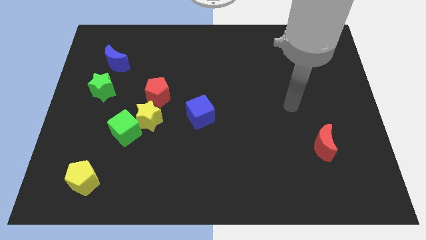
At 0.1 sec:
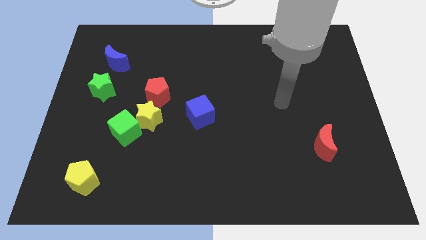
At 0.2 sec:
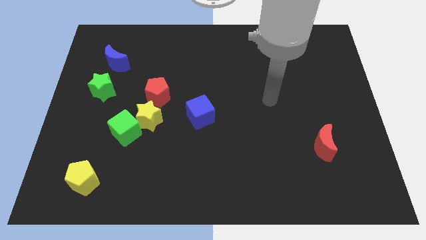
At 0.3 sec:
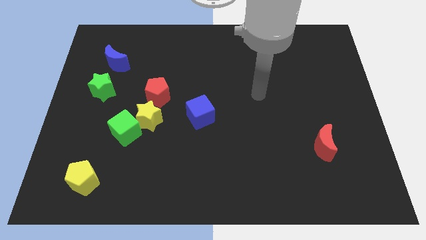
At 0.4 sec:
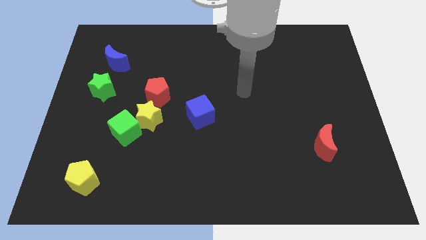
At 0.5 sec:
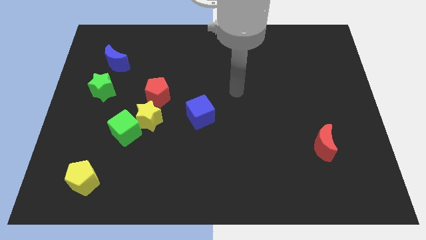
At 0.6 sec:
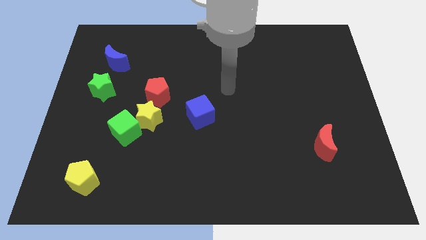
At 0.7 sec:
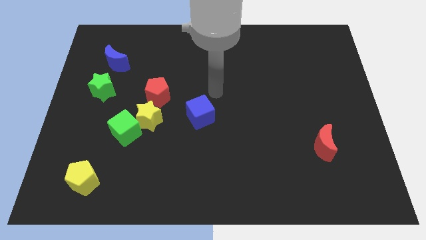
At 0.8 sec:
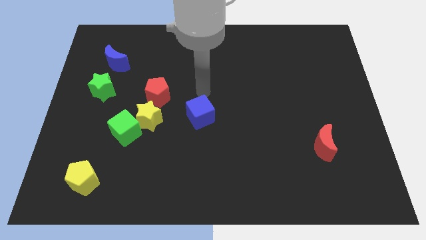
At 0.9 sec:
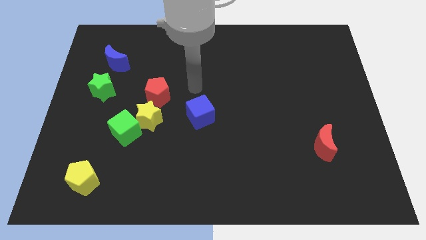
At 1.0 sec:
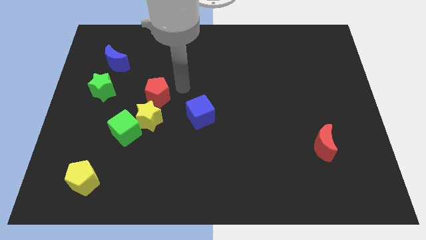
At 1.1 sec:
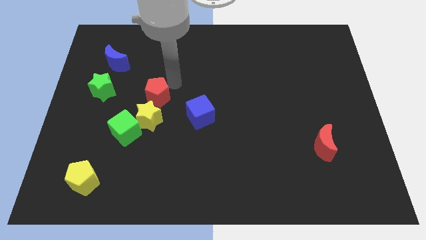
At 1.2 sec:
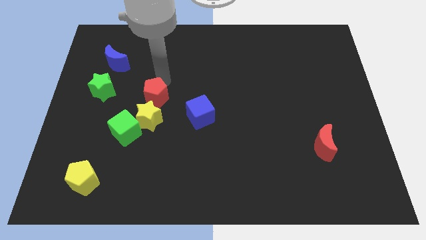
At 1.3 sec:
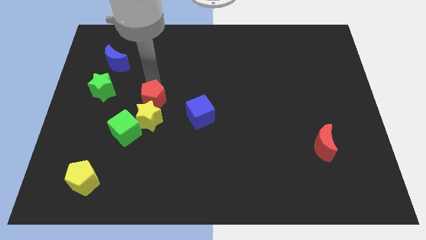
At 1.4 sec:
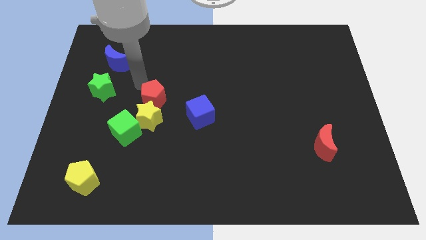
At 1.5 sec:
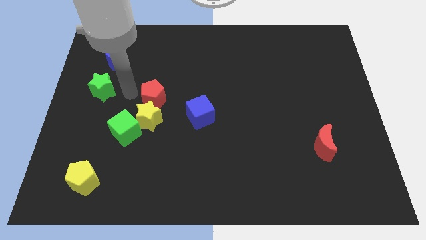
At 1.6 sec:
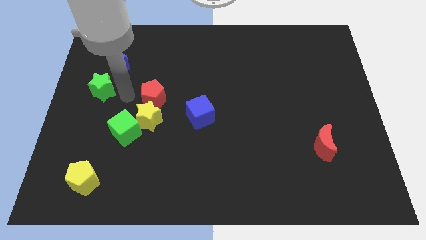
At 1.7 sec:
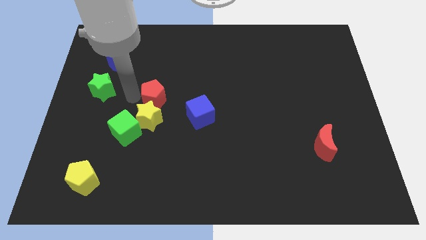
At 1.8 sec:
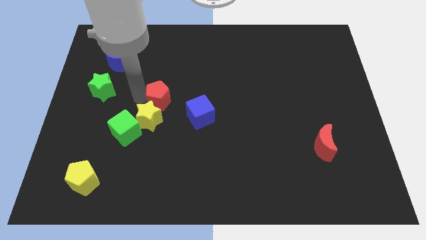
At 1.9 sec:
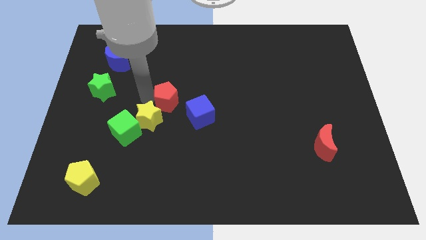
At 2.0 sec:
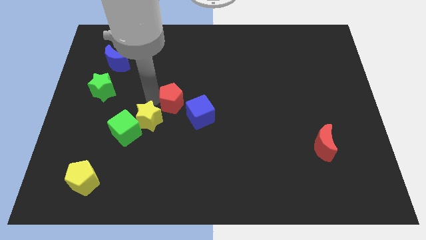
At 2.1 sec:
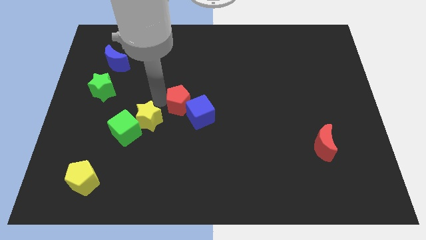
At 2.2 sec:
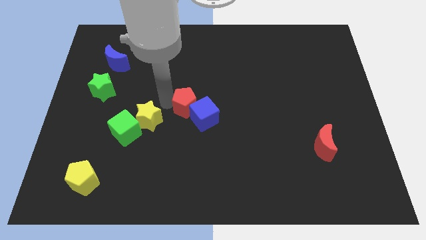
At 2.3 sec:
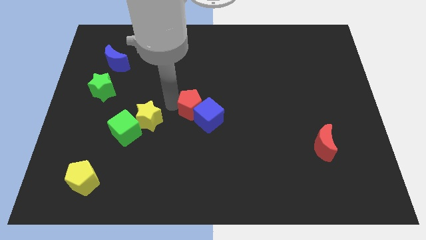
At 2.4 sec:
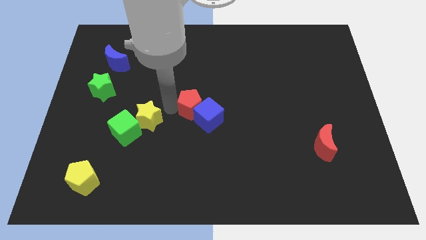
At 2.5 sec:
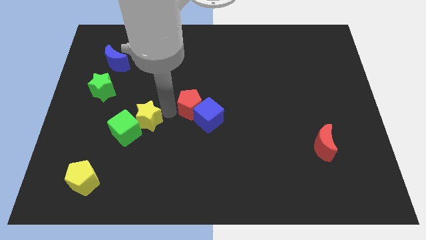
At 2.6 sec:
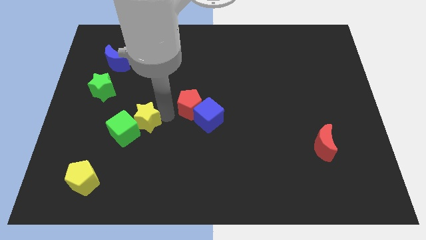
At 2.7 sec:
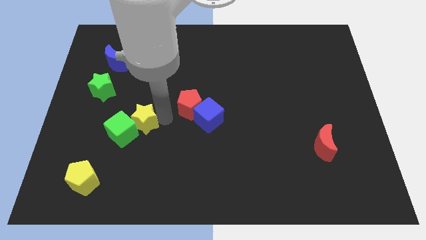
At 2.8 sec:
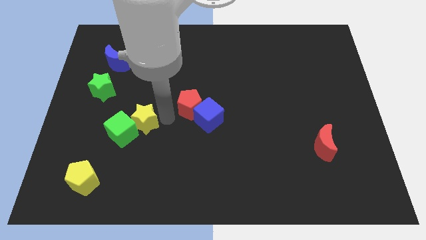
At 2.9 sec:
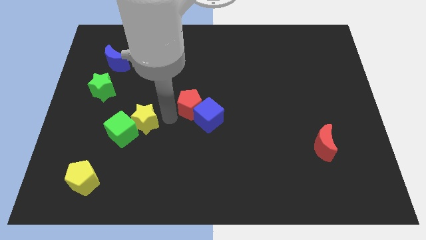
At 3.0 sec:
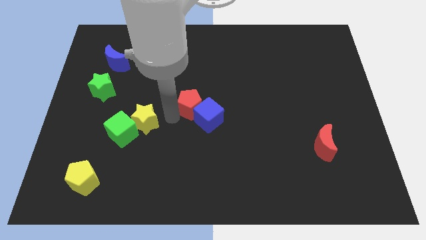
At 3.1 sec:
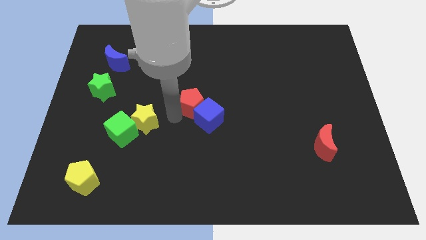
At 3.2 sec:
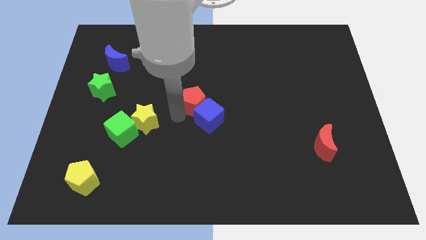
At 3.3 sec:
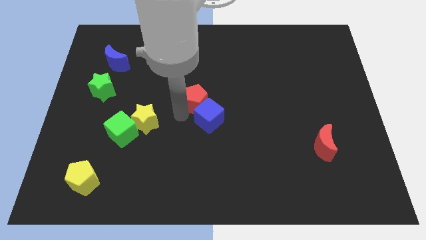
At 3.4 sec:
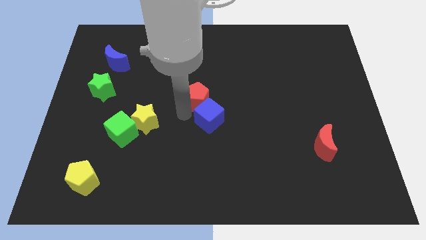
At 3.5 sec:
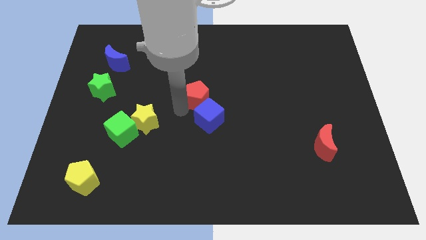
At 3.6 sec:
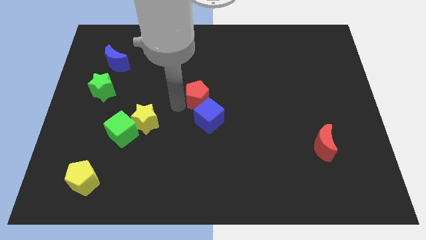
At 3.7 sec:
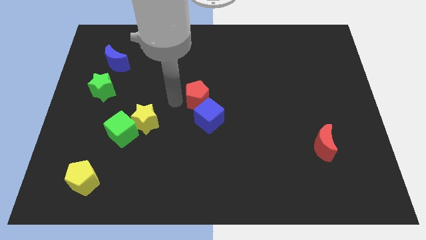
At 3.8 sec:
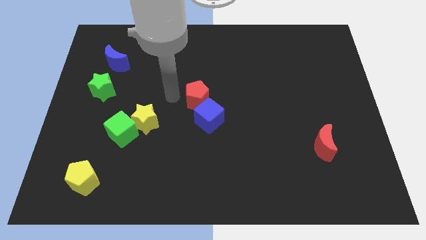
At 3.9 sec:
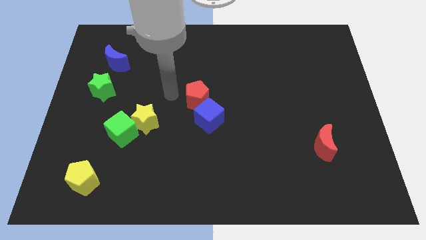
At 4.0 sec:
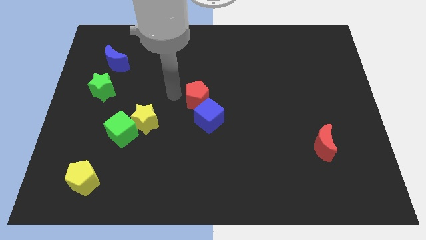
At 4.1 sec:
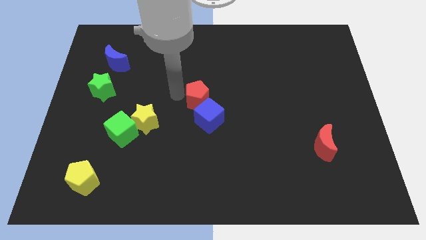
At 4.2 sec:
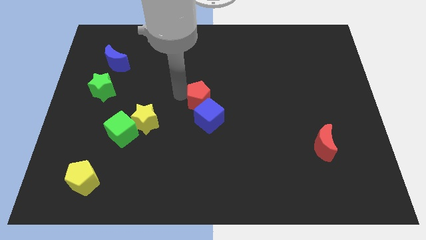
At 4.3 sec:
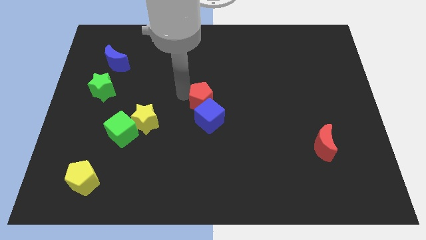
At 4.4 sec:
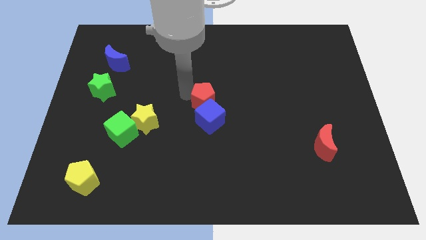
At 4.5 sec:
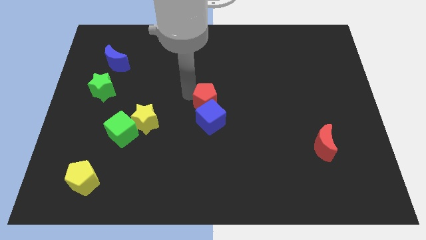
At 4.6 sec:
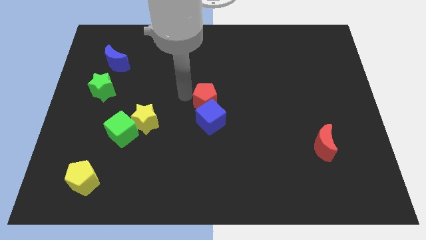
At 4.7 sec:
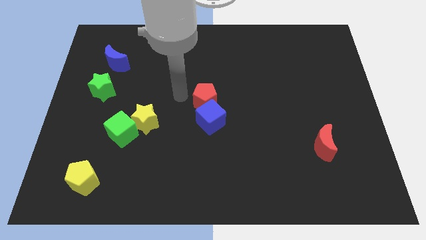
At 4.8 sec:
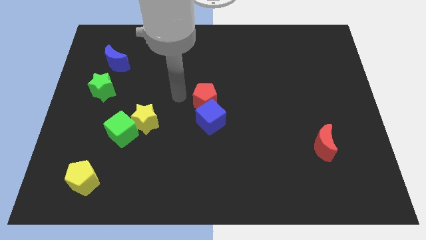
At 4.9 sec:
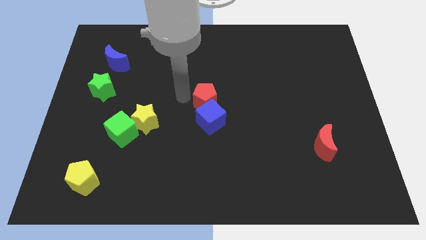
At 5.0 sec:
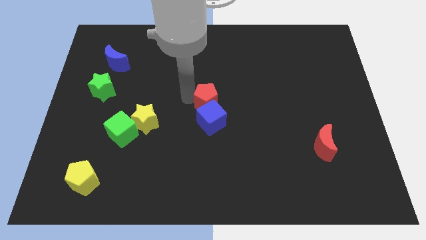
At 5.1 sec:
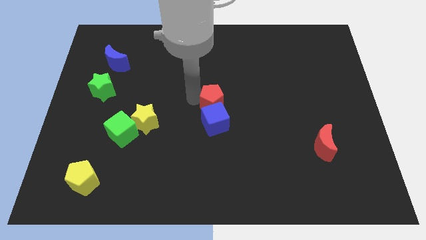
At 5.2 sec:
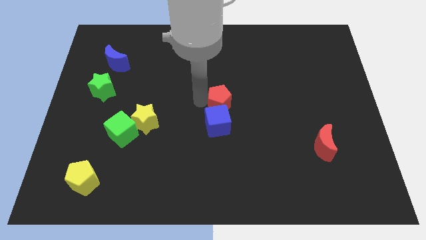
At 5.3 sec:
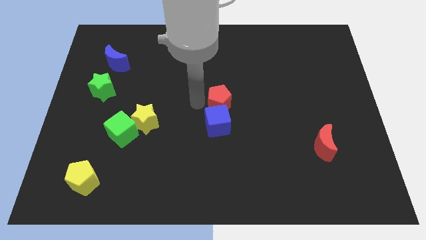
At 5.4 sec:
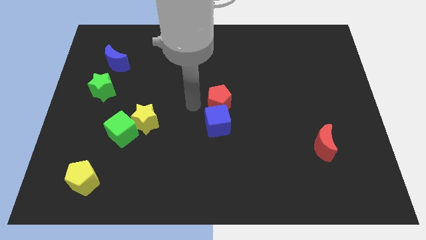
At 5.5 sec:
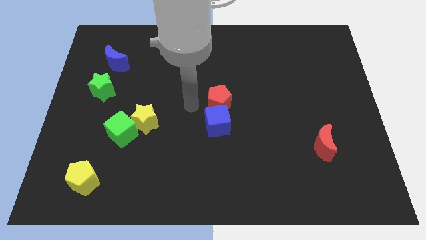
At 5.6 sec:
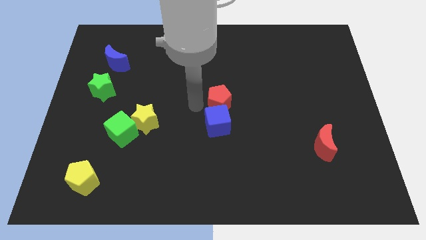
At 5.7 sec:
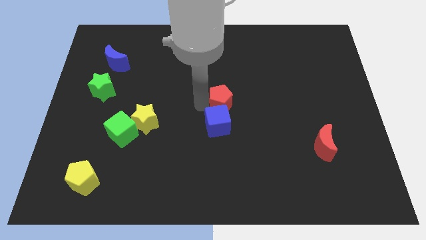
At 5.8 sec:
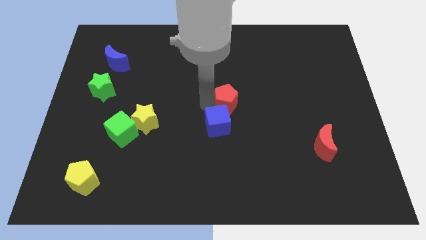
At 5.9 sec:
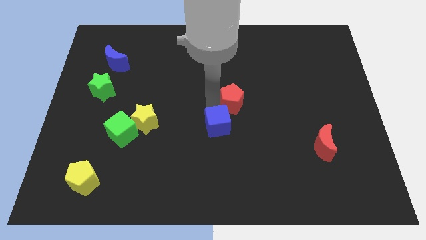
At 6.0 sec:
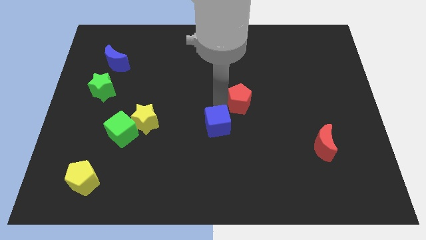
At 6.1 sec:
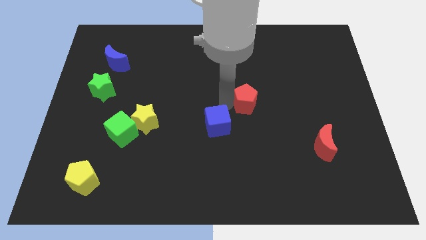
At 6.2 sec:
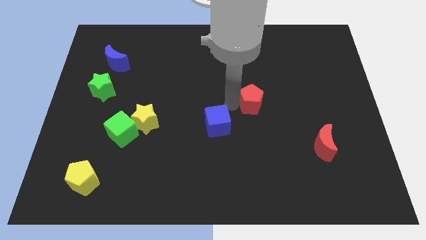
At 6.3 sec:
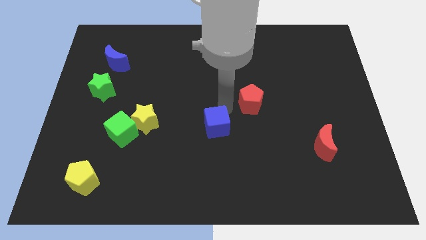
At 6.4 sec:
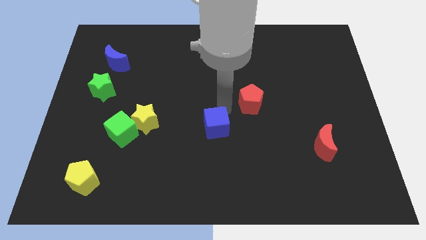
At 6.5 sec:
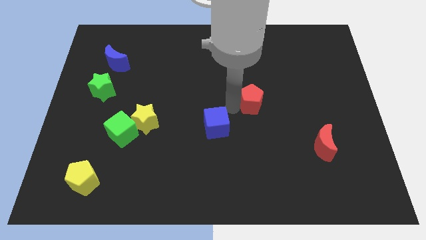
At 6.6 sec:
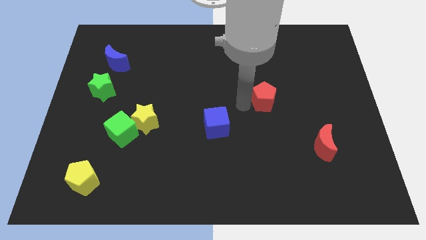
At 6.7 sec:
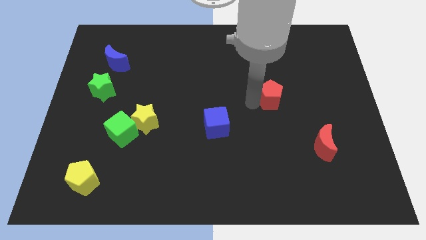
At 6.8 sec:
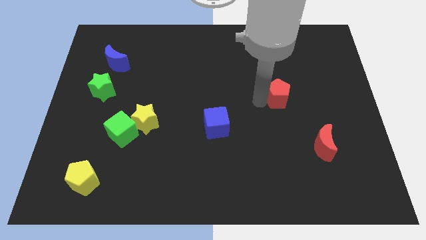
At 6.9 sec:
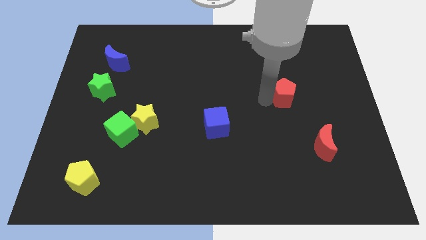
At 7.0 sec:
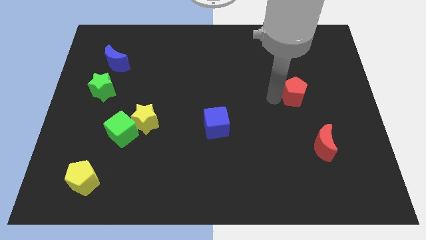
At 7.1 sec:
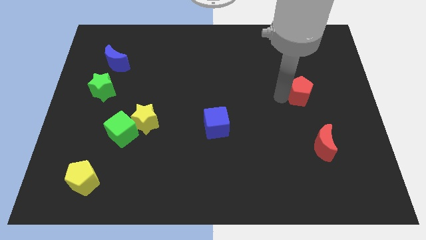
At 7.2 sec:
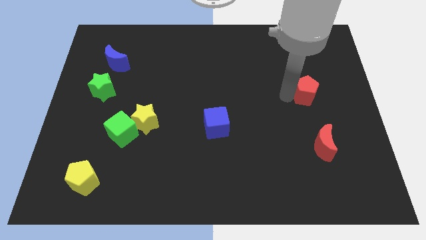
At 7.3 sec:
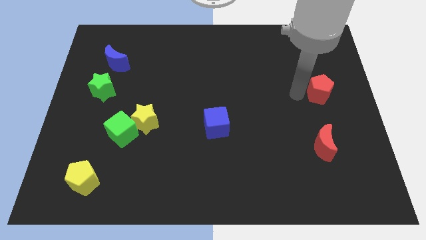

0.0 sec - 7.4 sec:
slide the red pentagon to the center right

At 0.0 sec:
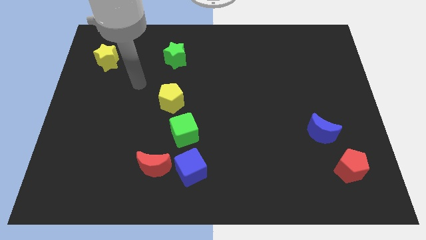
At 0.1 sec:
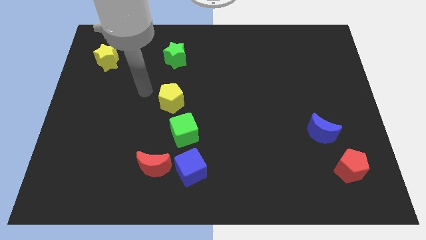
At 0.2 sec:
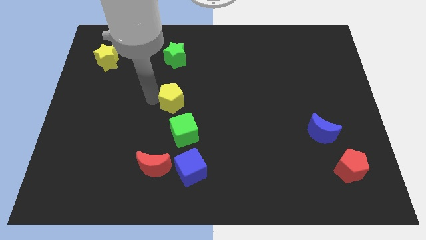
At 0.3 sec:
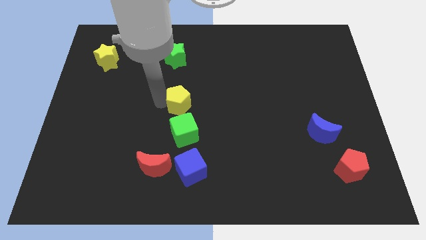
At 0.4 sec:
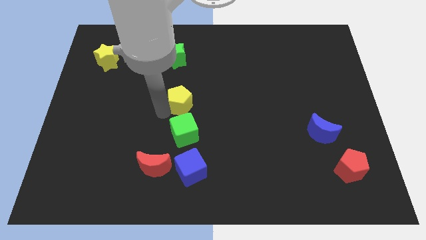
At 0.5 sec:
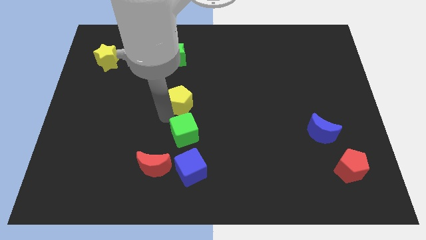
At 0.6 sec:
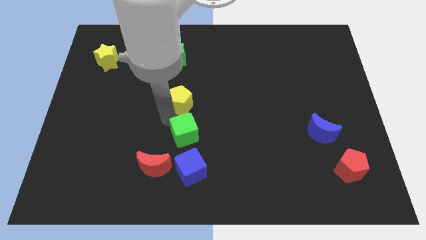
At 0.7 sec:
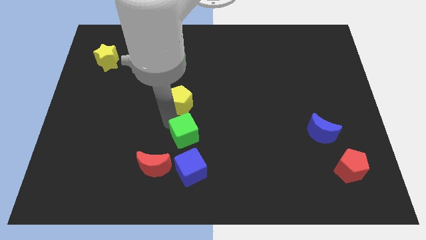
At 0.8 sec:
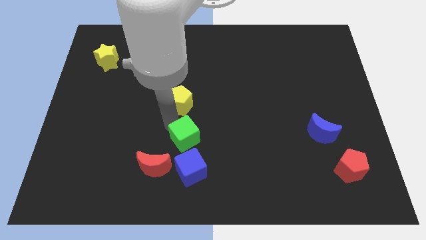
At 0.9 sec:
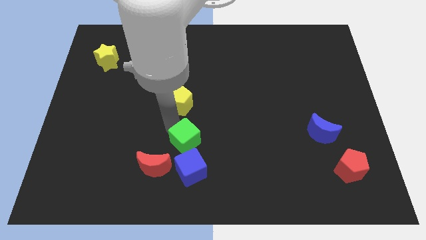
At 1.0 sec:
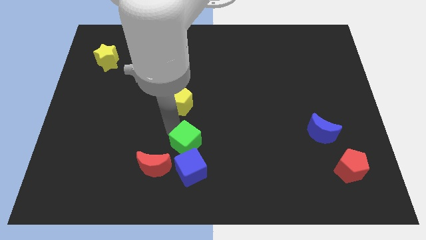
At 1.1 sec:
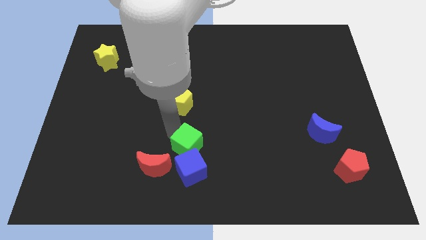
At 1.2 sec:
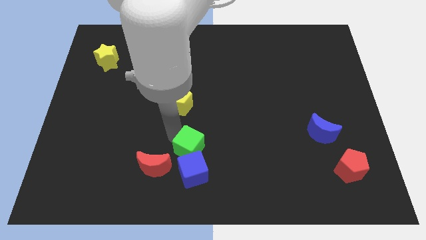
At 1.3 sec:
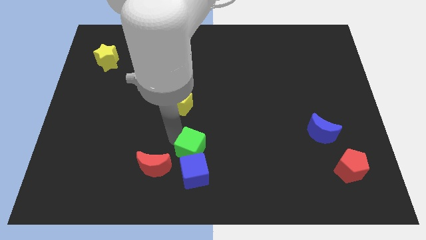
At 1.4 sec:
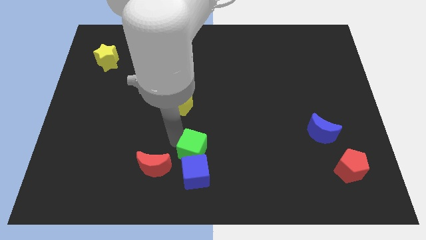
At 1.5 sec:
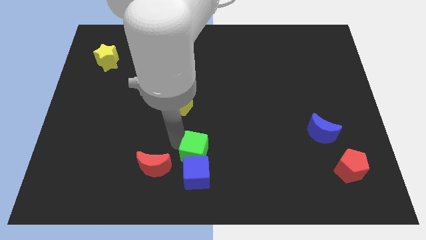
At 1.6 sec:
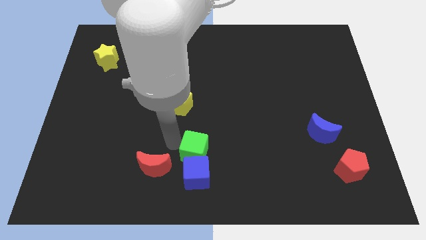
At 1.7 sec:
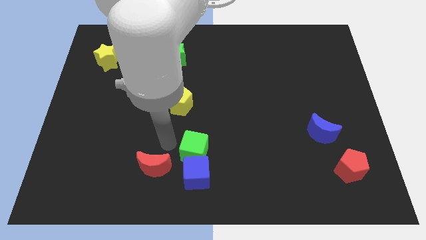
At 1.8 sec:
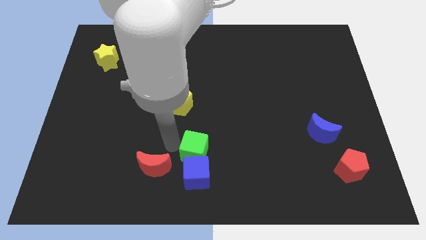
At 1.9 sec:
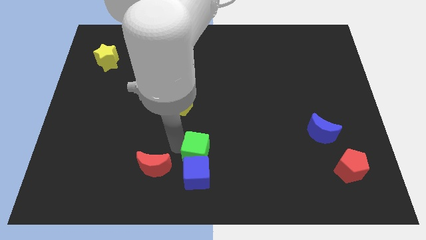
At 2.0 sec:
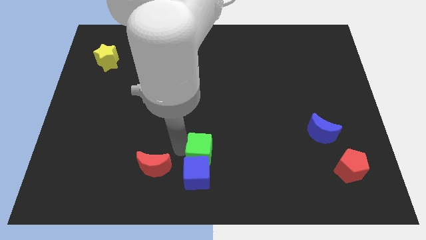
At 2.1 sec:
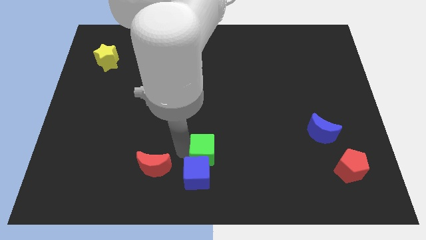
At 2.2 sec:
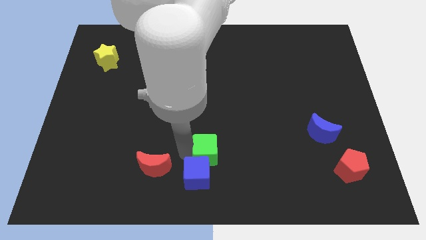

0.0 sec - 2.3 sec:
push the green cube to the bottom
